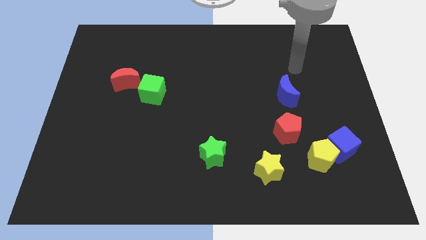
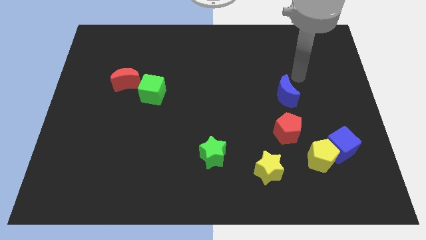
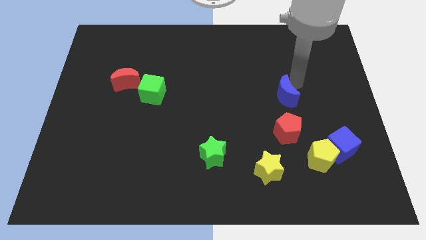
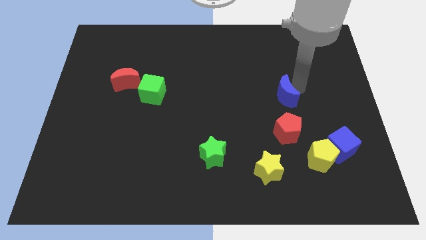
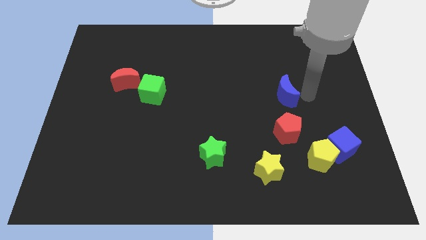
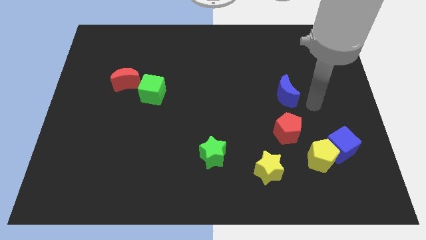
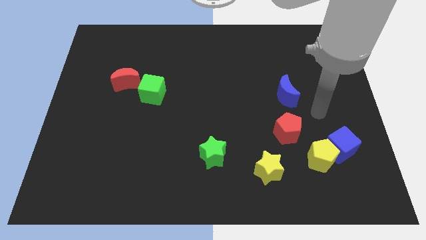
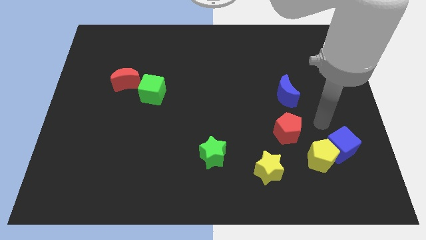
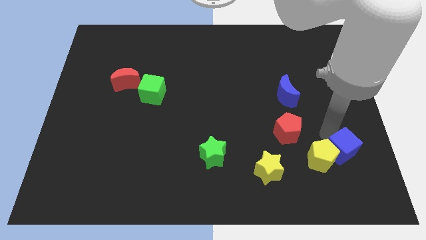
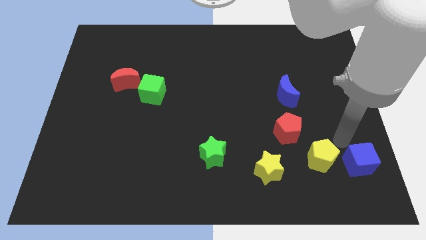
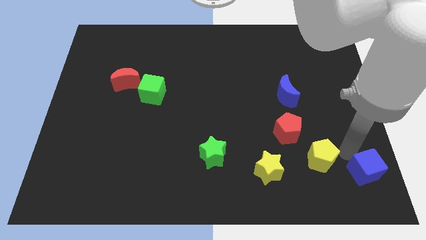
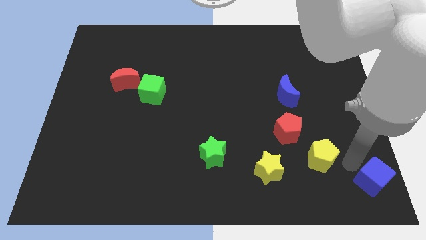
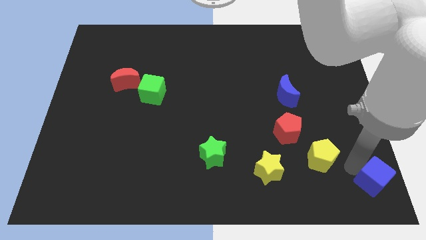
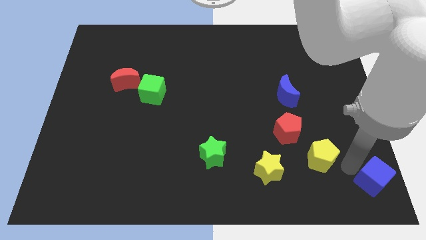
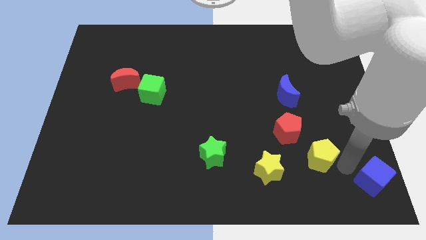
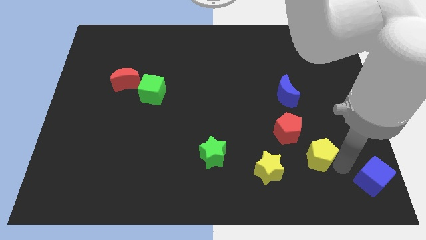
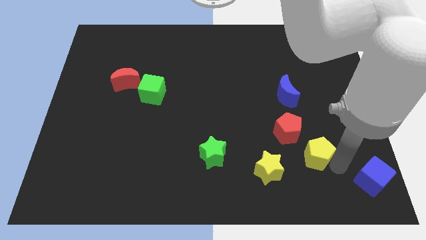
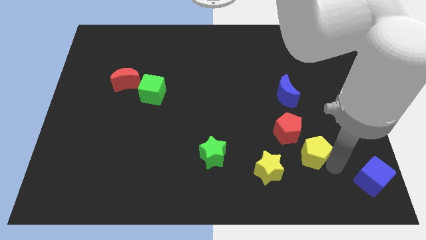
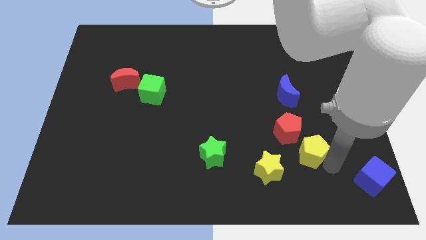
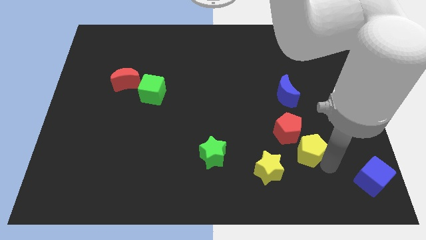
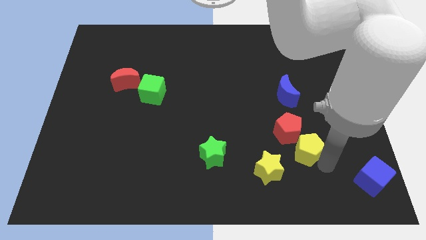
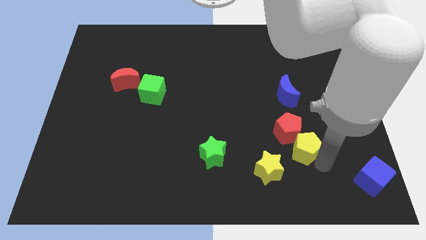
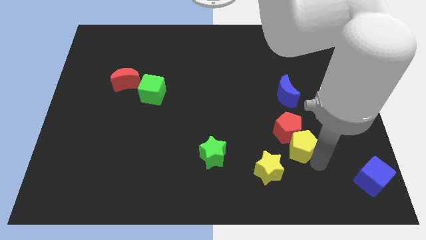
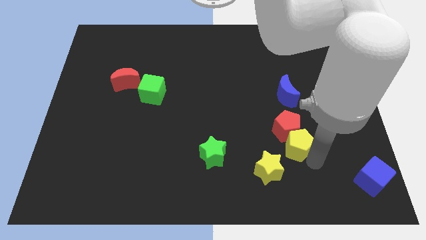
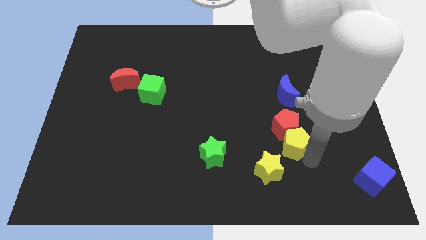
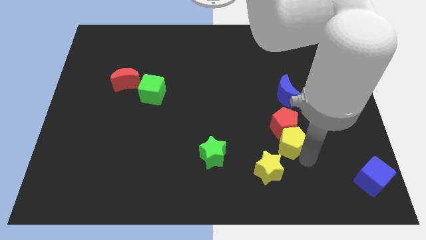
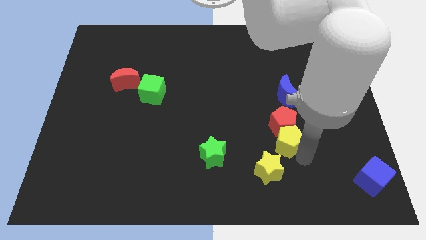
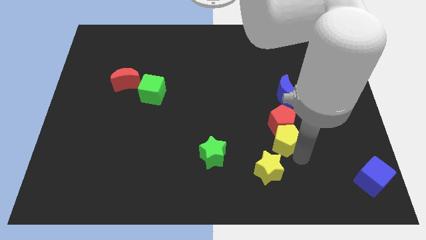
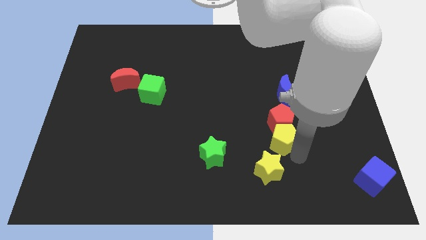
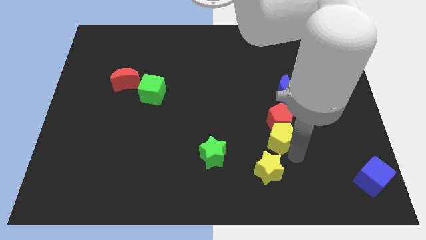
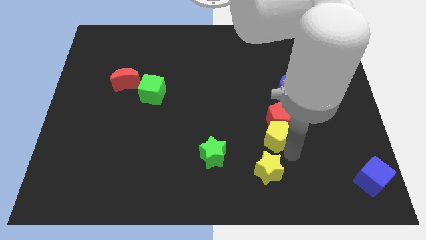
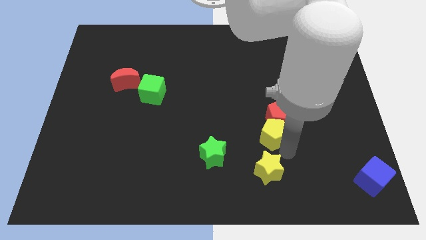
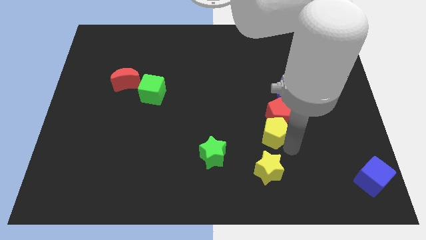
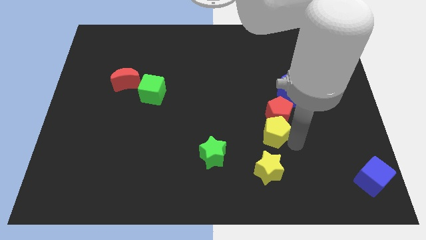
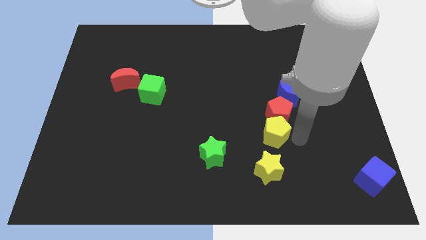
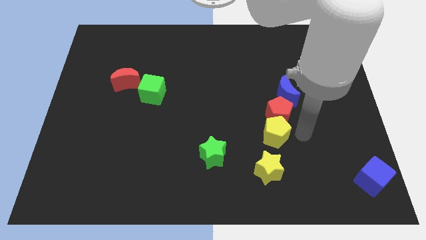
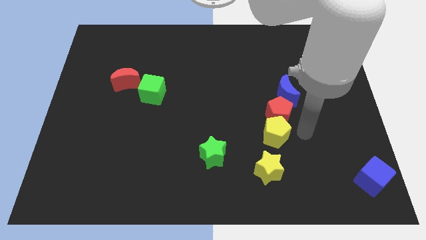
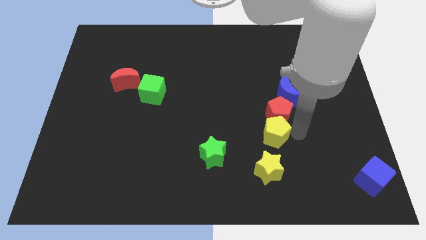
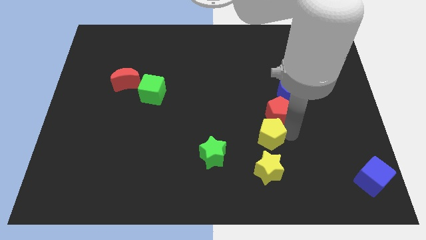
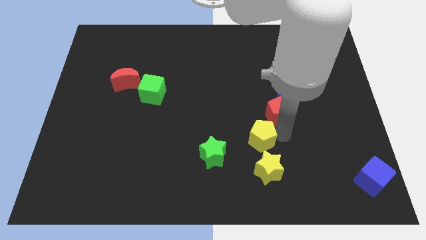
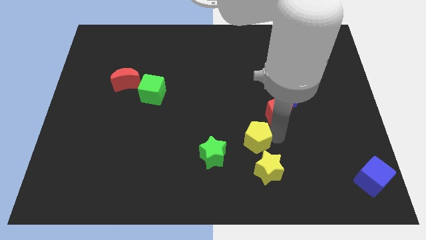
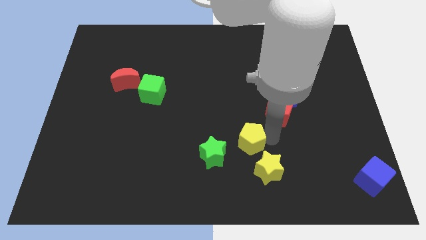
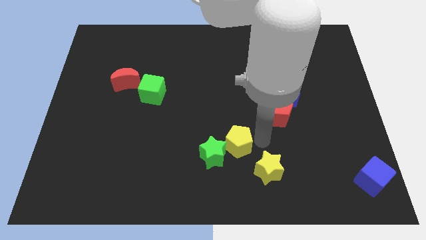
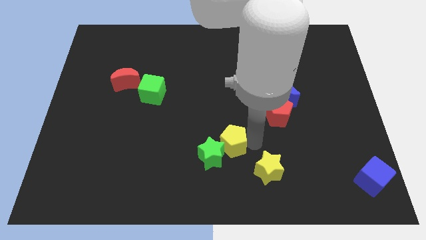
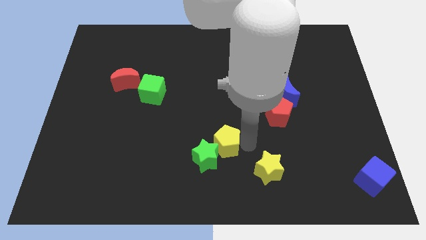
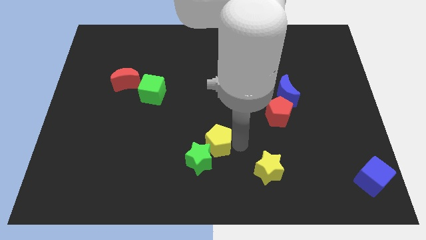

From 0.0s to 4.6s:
slide the yellow pentagon to the left

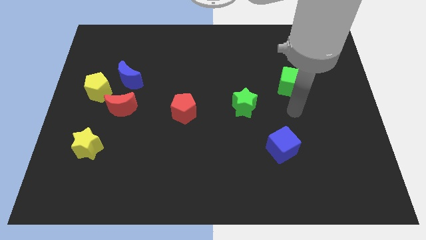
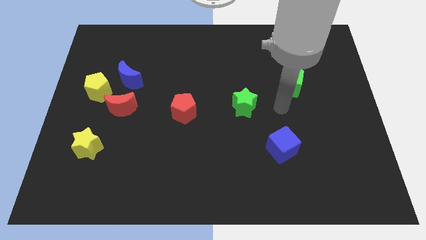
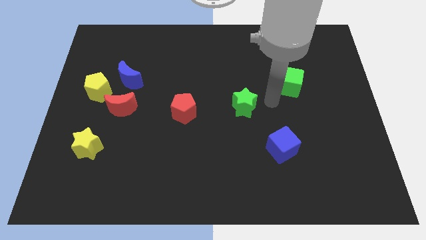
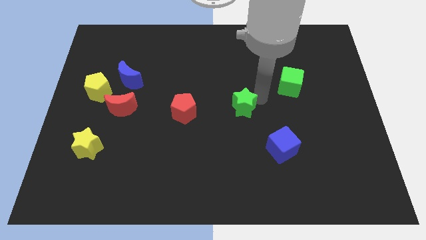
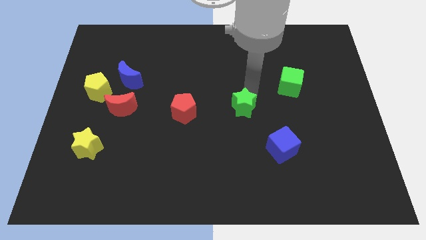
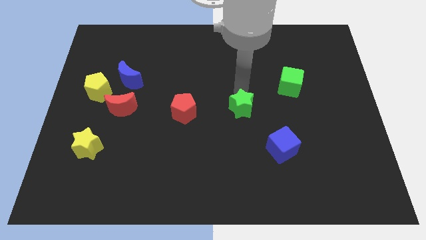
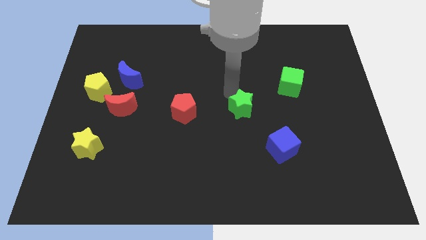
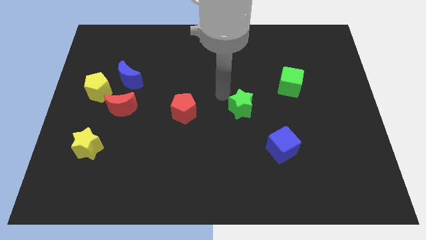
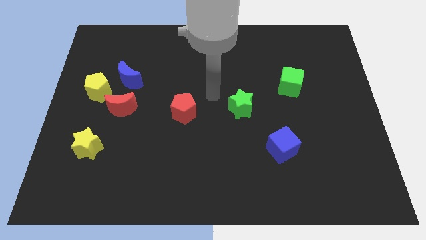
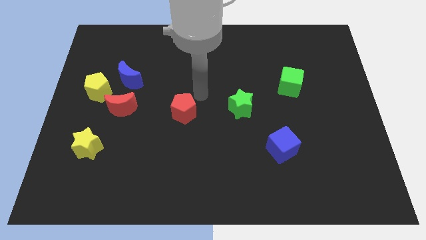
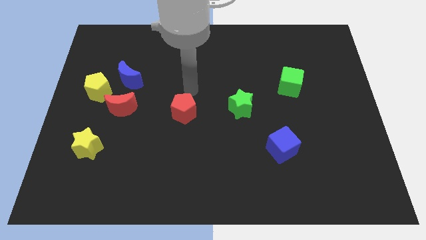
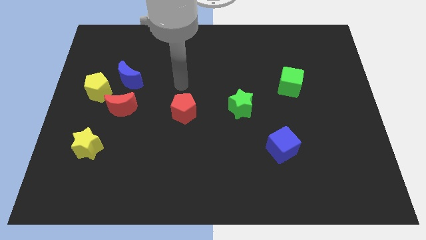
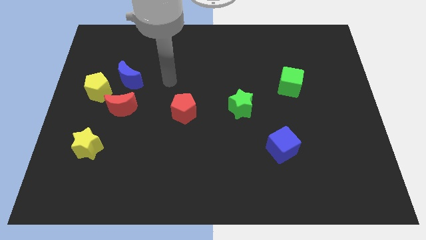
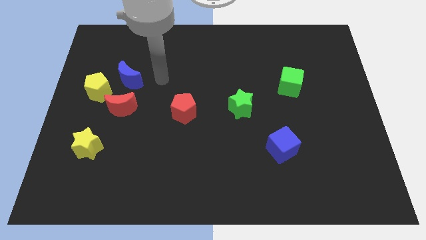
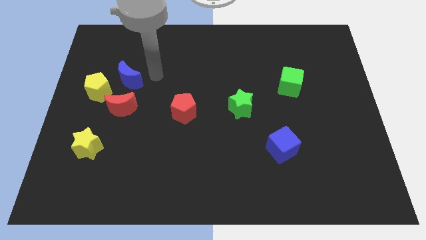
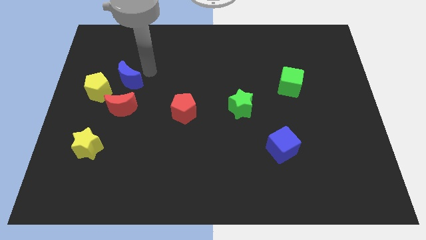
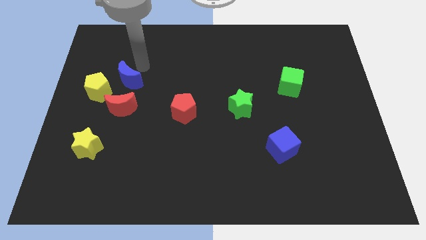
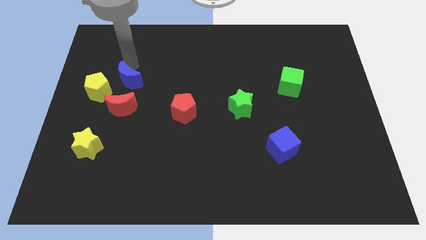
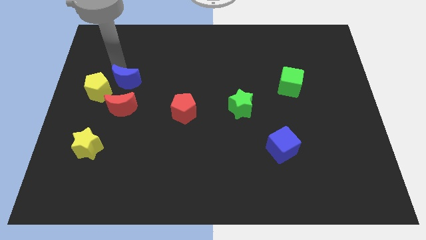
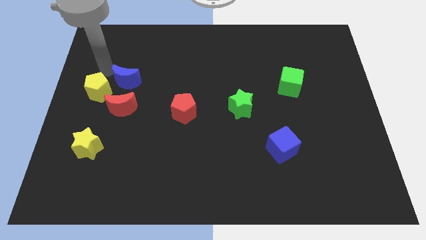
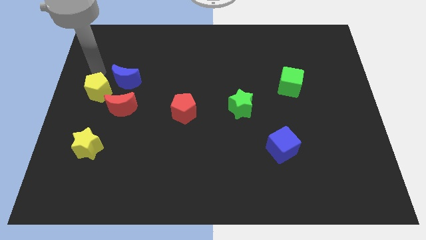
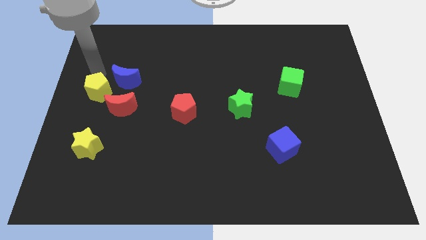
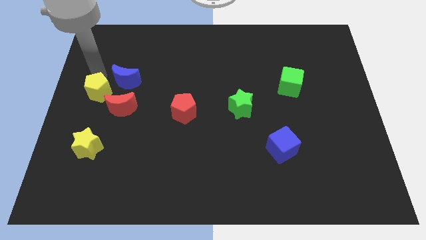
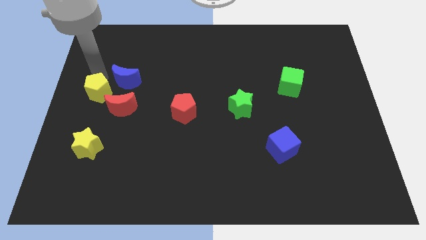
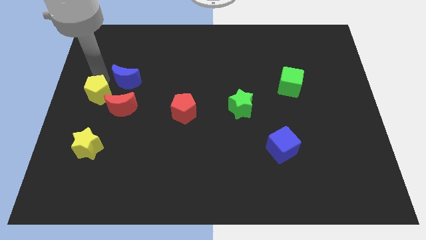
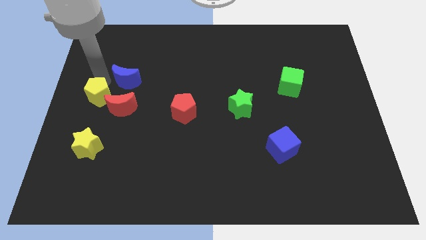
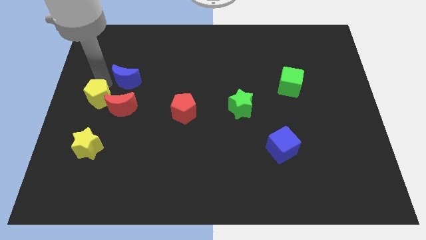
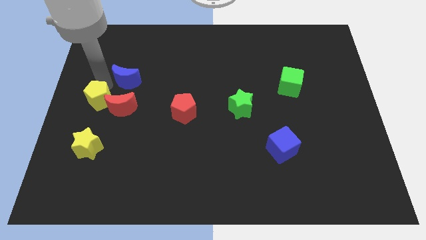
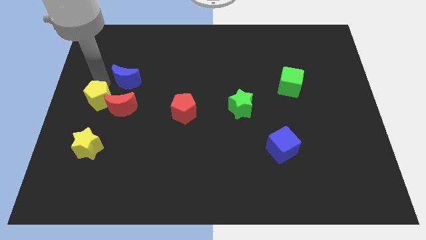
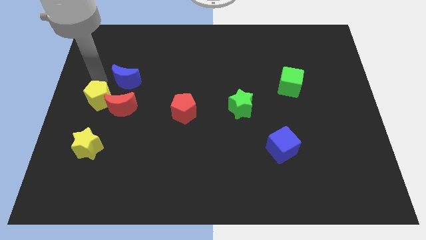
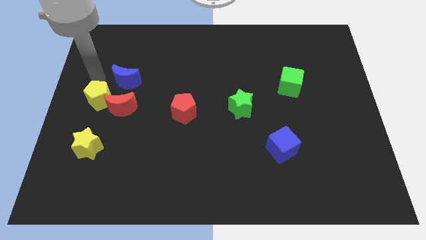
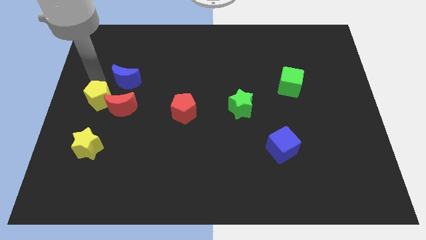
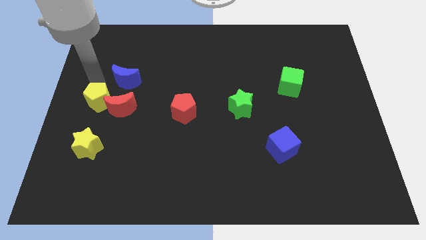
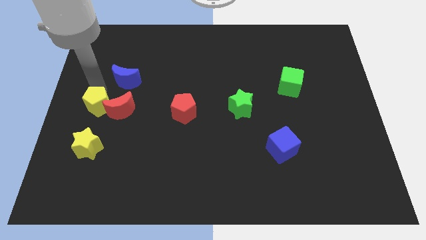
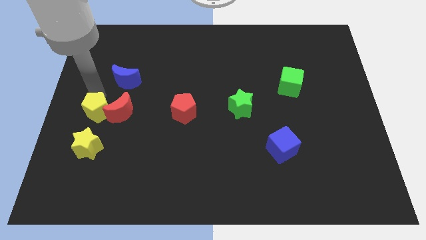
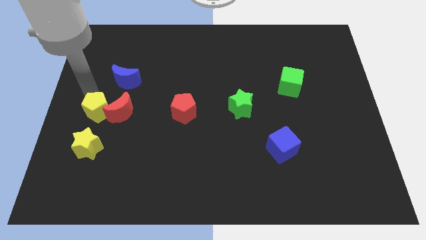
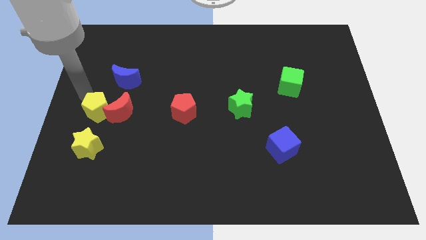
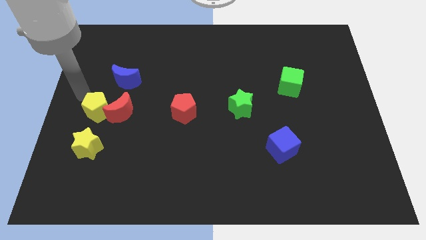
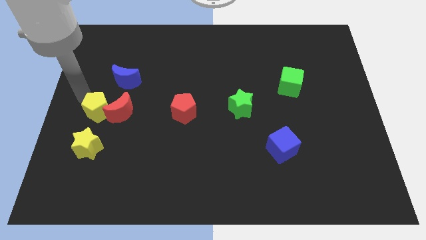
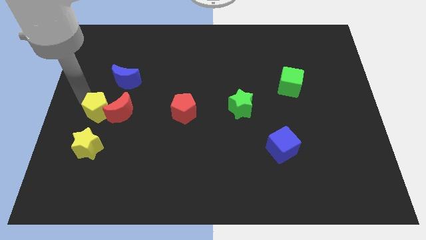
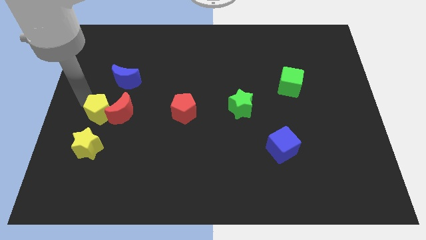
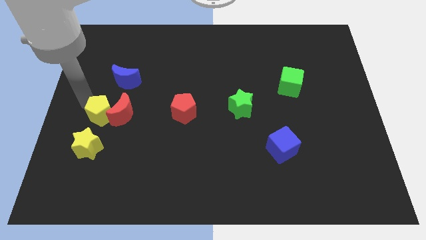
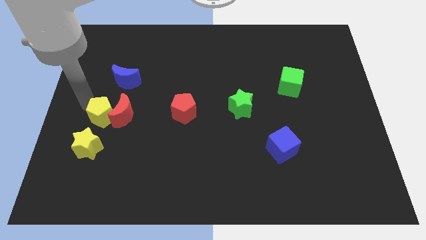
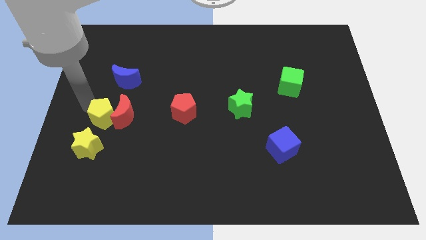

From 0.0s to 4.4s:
slide the yellow pentagon down and right diagonally a little
